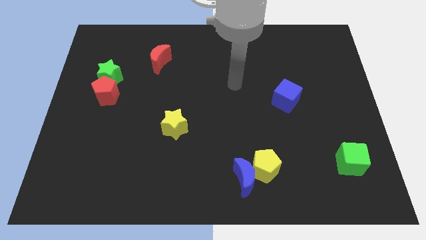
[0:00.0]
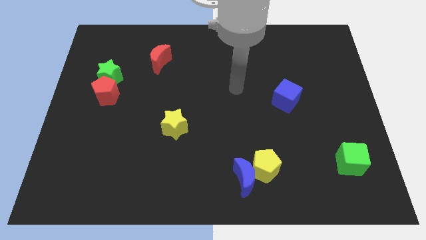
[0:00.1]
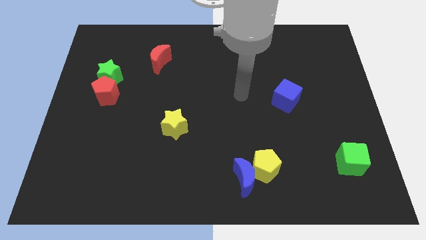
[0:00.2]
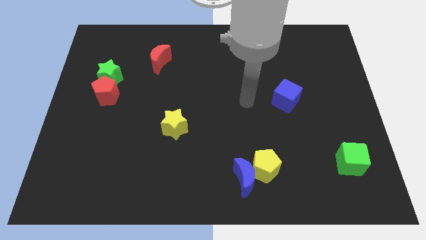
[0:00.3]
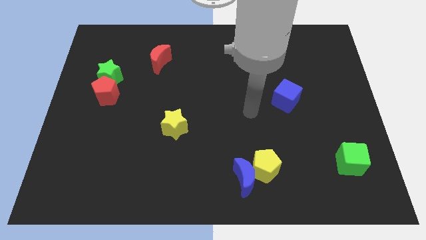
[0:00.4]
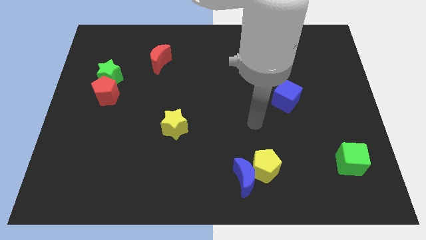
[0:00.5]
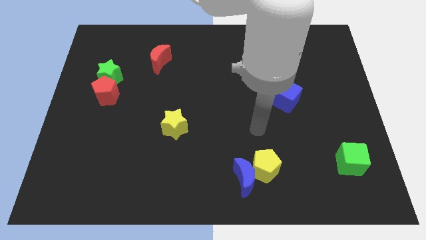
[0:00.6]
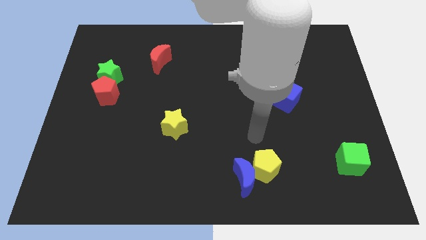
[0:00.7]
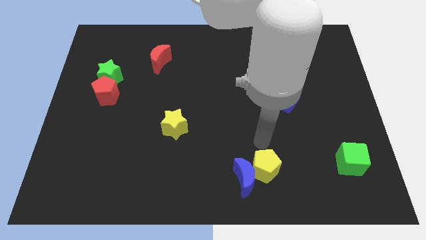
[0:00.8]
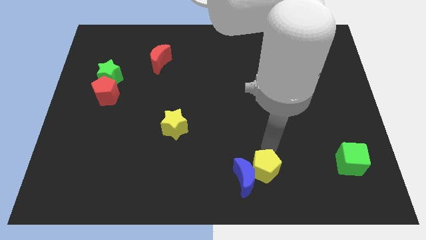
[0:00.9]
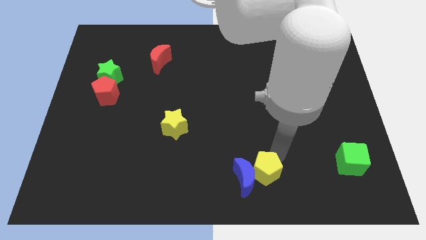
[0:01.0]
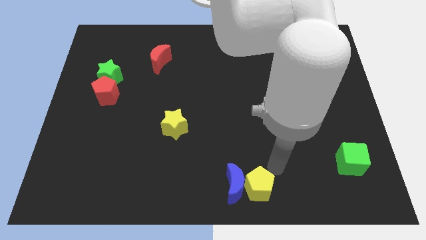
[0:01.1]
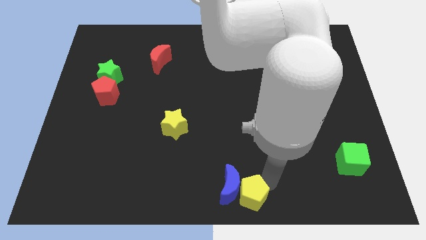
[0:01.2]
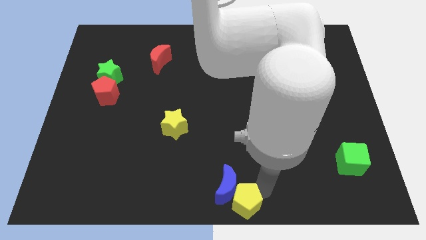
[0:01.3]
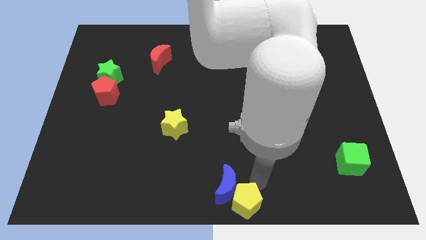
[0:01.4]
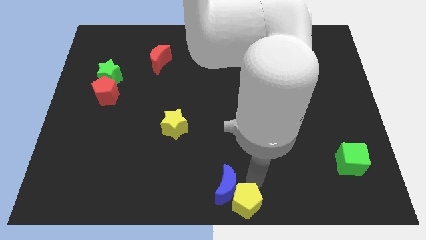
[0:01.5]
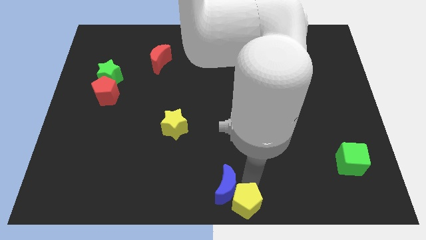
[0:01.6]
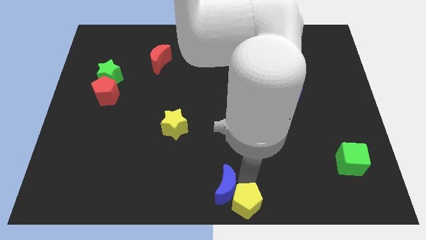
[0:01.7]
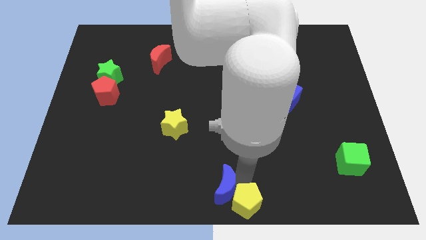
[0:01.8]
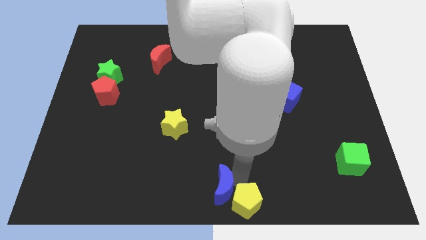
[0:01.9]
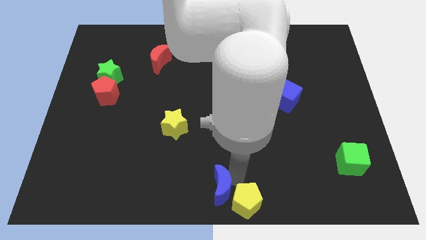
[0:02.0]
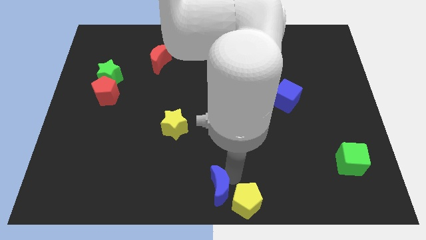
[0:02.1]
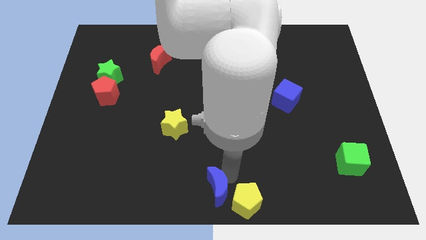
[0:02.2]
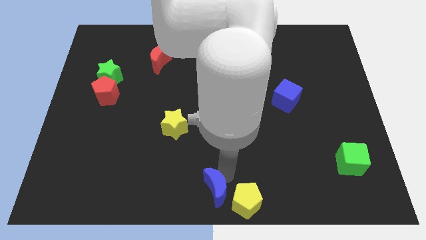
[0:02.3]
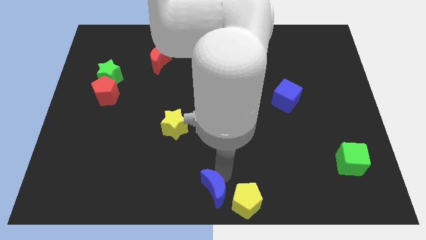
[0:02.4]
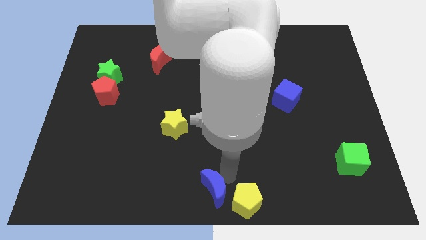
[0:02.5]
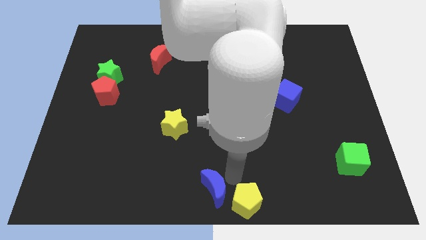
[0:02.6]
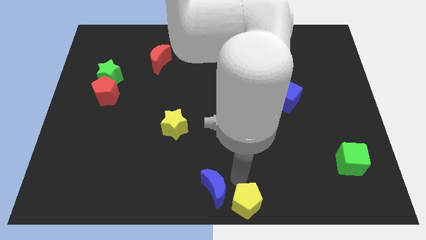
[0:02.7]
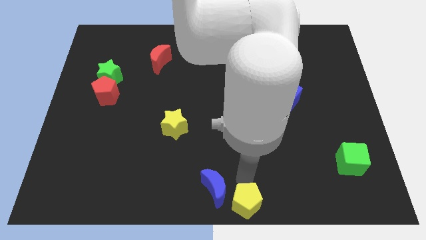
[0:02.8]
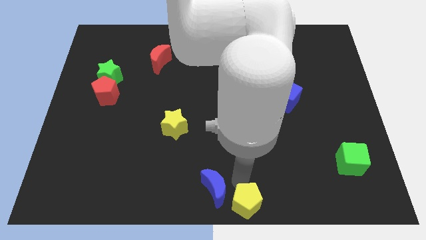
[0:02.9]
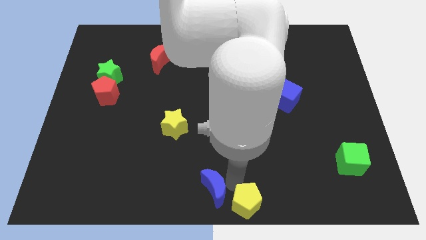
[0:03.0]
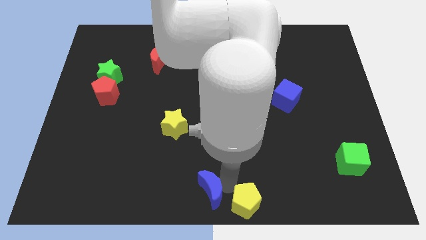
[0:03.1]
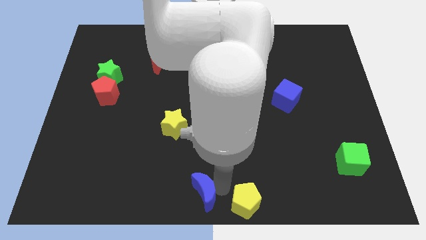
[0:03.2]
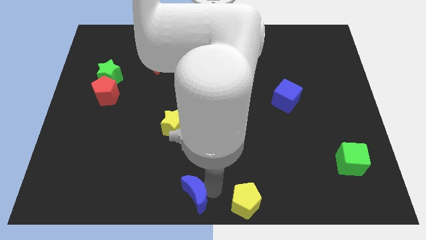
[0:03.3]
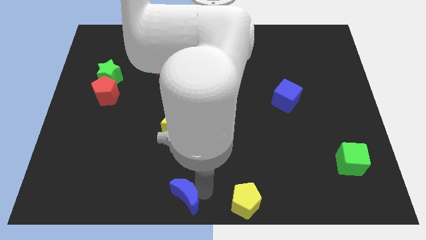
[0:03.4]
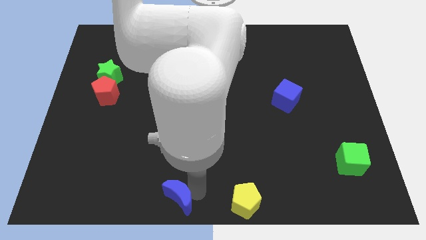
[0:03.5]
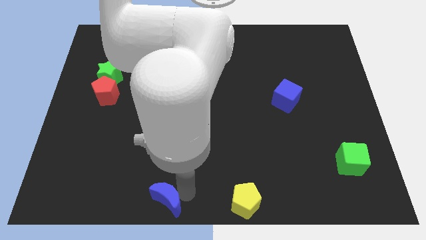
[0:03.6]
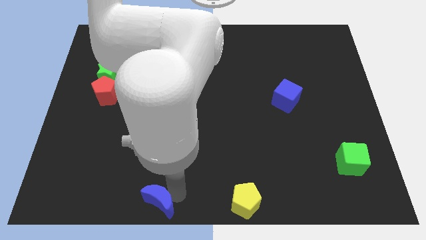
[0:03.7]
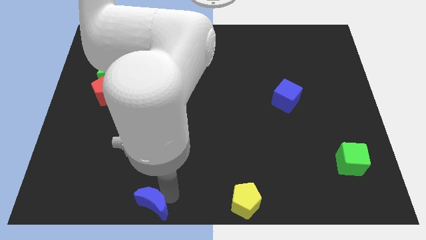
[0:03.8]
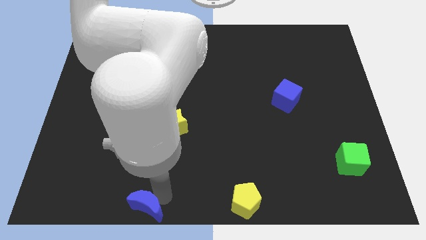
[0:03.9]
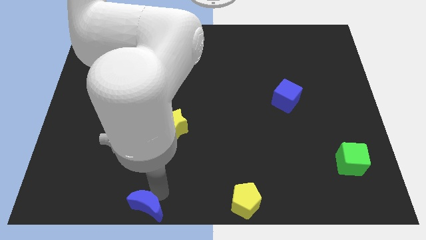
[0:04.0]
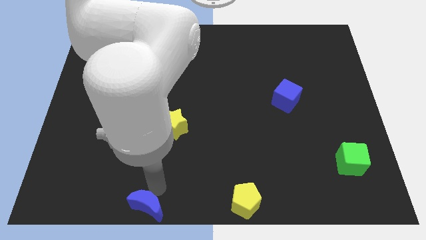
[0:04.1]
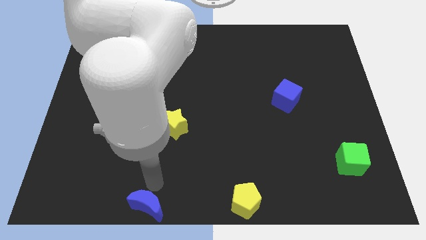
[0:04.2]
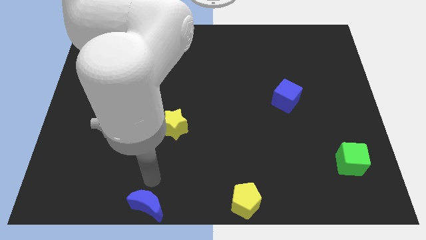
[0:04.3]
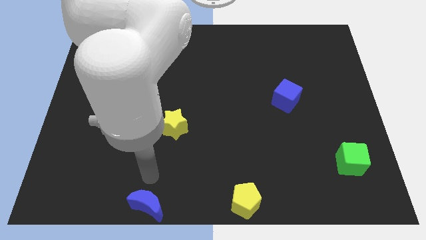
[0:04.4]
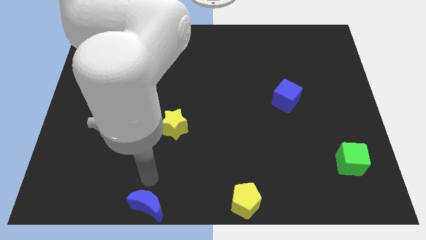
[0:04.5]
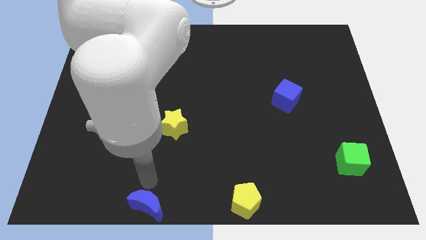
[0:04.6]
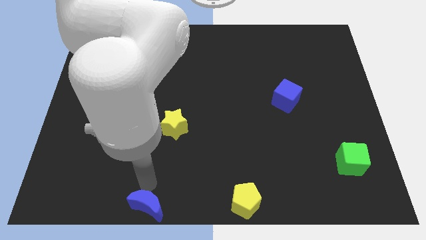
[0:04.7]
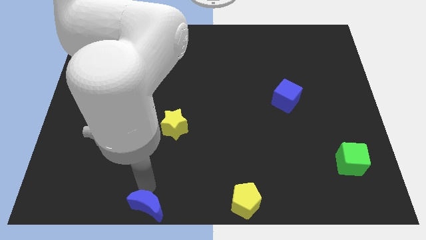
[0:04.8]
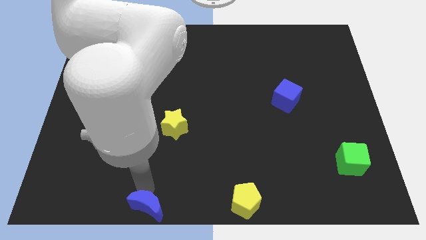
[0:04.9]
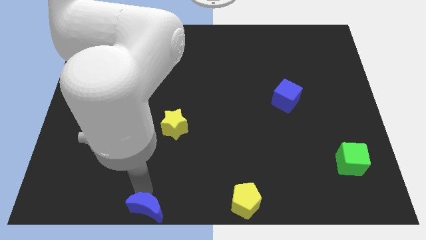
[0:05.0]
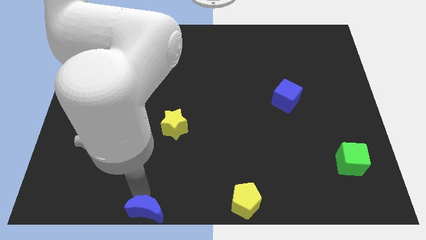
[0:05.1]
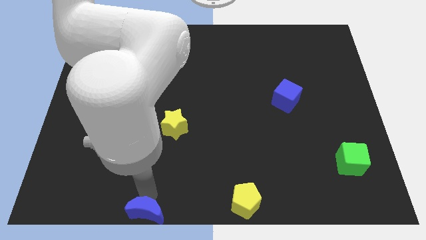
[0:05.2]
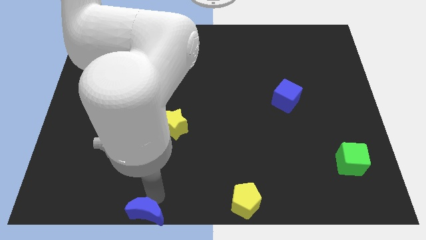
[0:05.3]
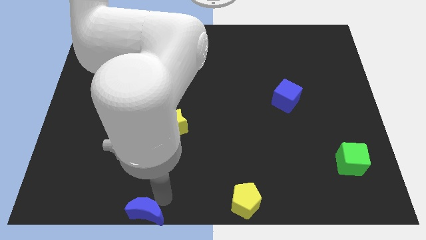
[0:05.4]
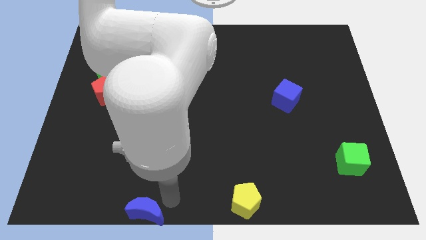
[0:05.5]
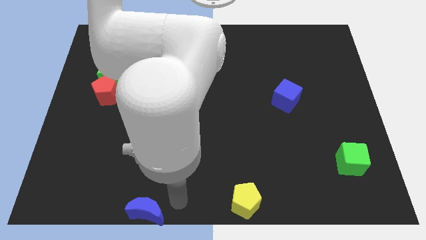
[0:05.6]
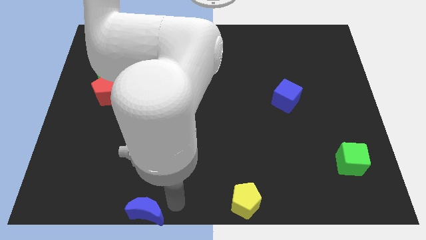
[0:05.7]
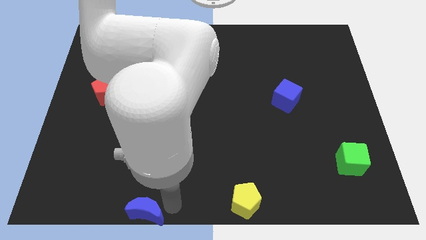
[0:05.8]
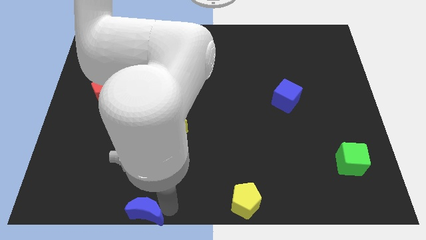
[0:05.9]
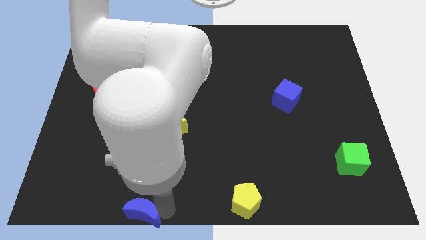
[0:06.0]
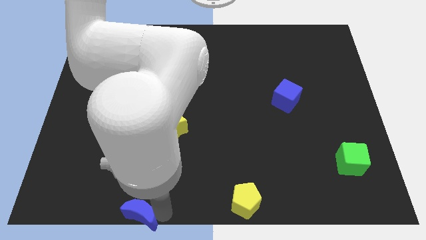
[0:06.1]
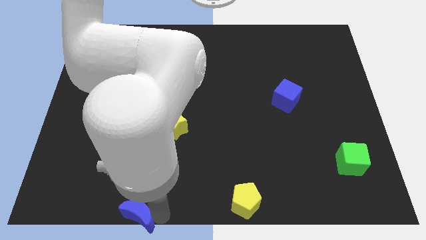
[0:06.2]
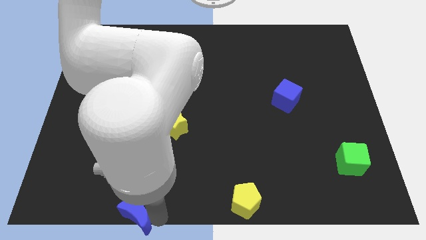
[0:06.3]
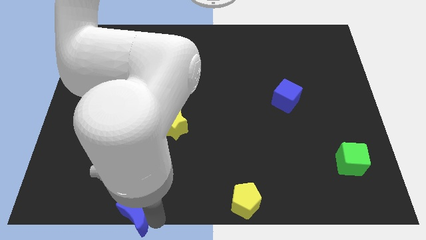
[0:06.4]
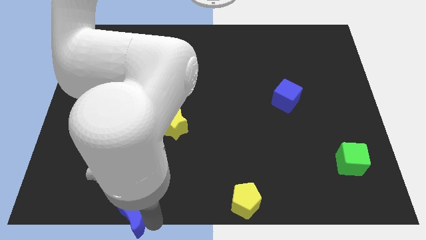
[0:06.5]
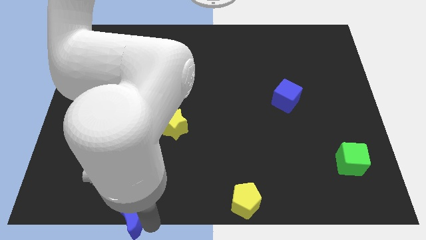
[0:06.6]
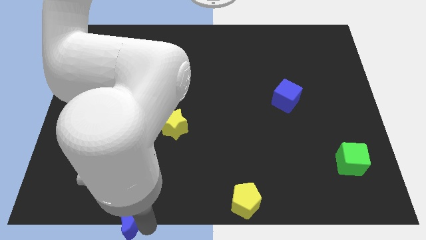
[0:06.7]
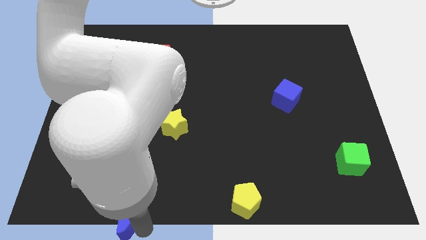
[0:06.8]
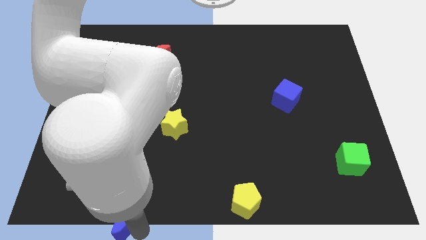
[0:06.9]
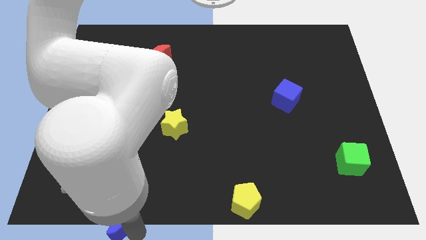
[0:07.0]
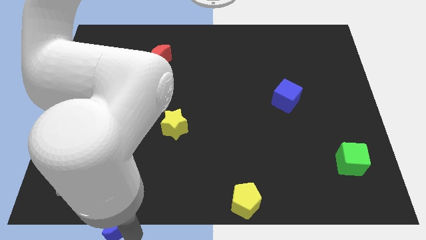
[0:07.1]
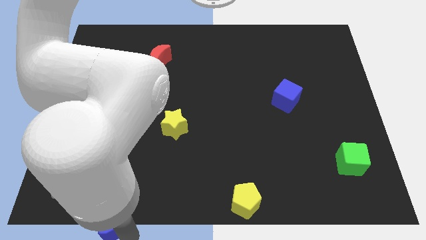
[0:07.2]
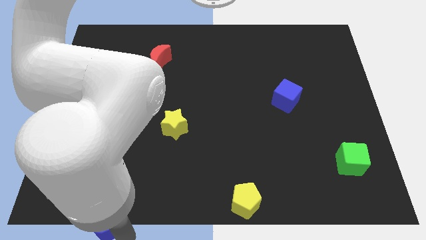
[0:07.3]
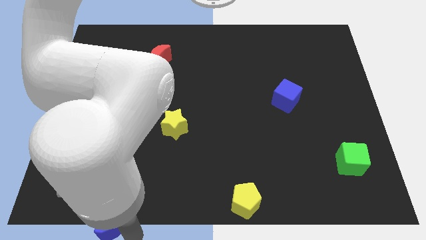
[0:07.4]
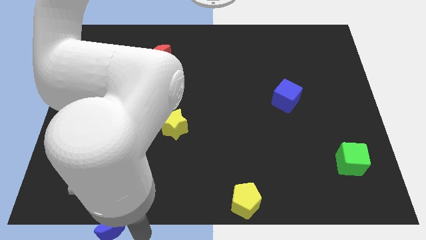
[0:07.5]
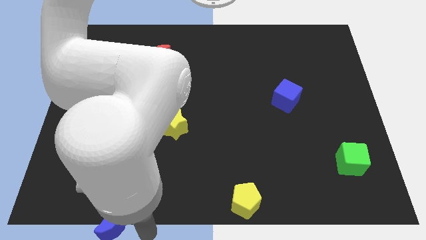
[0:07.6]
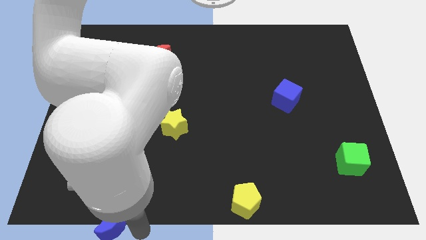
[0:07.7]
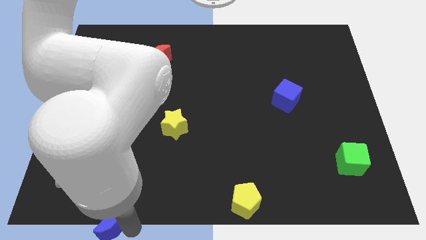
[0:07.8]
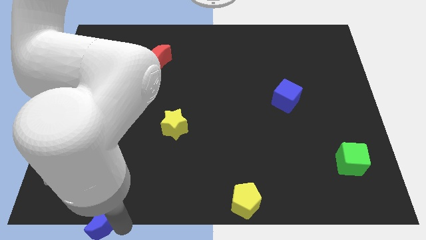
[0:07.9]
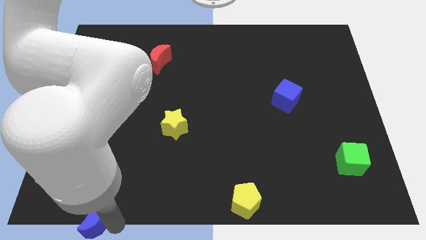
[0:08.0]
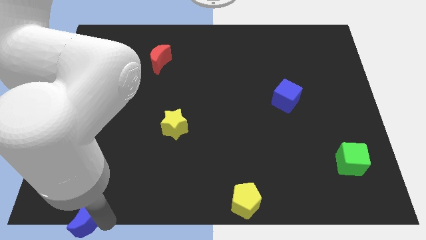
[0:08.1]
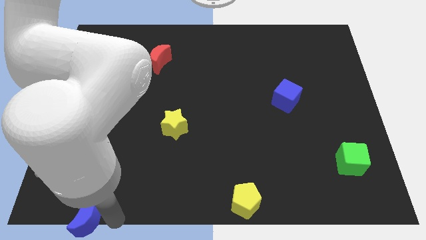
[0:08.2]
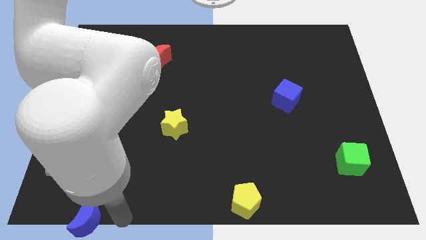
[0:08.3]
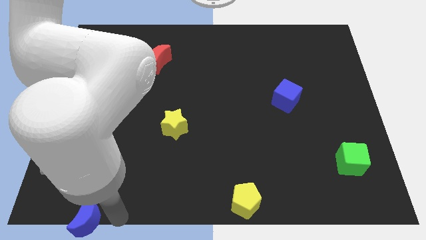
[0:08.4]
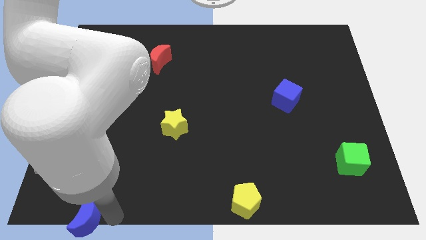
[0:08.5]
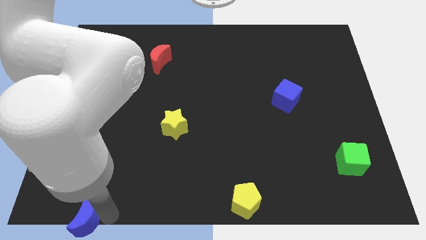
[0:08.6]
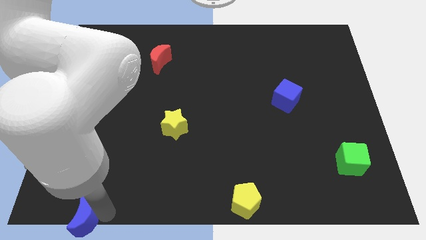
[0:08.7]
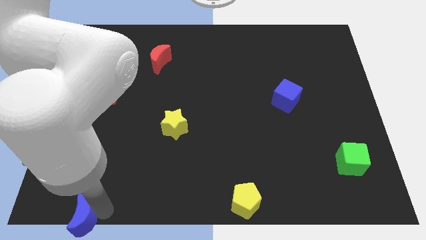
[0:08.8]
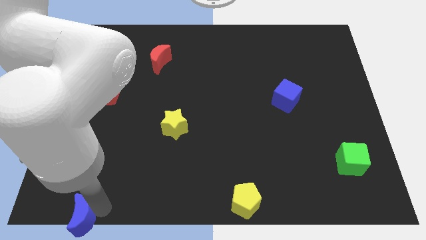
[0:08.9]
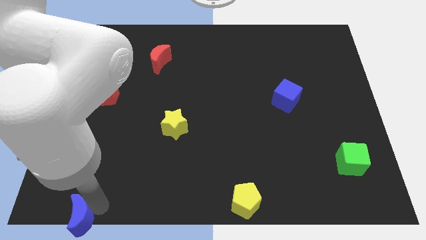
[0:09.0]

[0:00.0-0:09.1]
move the blue moon to the bottom left
